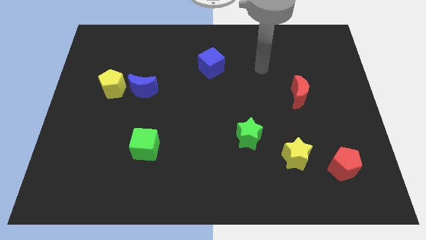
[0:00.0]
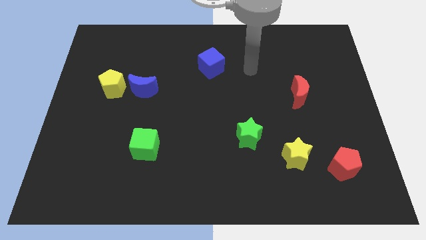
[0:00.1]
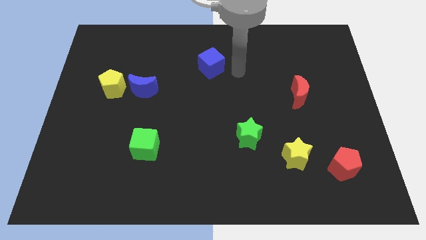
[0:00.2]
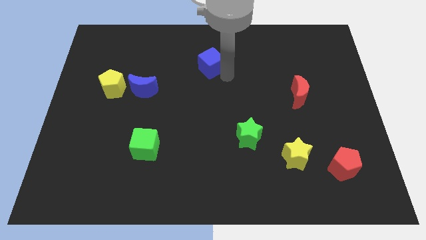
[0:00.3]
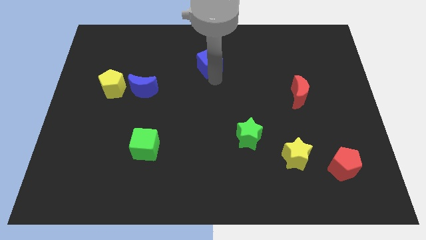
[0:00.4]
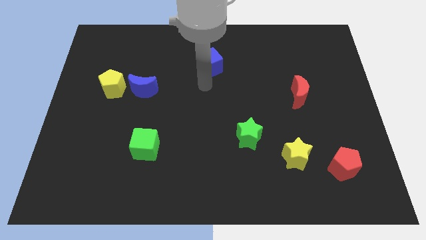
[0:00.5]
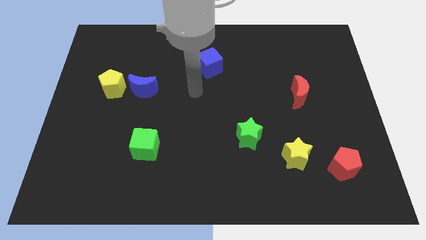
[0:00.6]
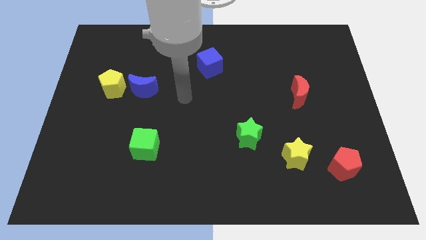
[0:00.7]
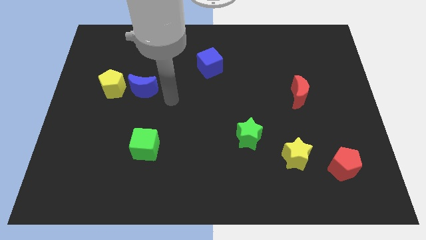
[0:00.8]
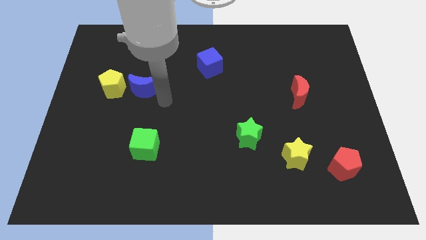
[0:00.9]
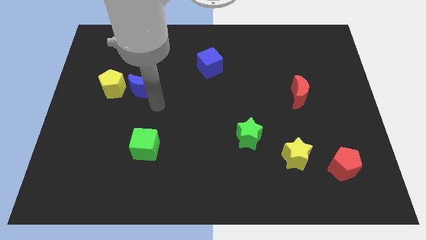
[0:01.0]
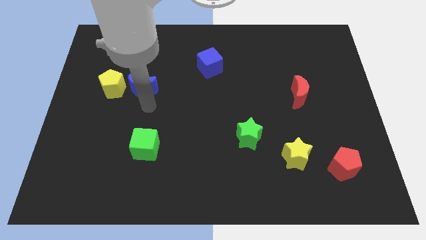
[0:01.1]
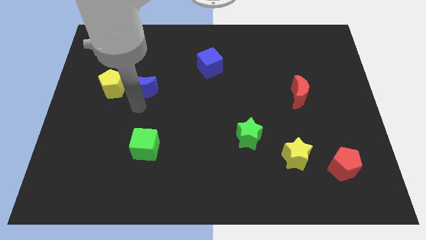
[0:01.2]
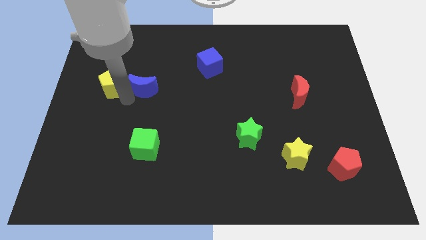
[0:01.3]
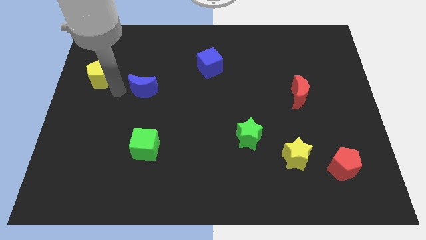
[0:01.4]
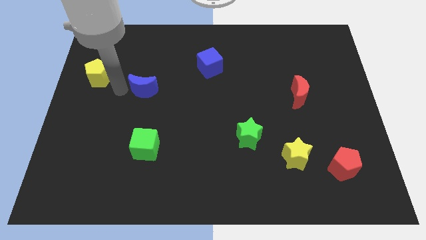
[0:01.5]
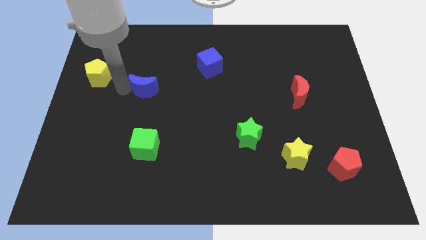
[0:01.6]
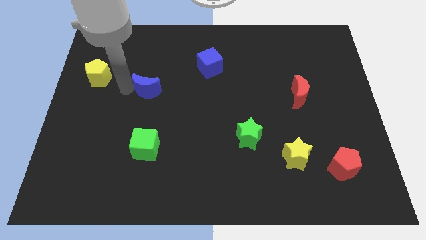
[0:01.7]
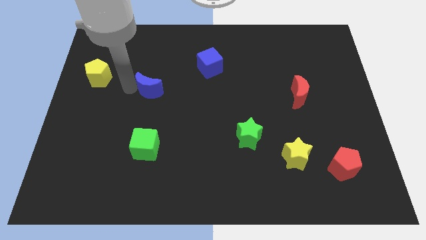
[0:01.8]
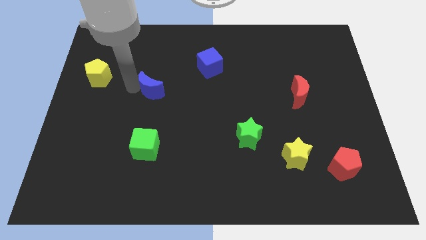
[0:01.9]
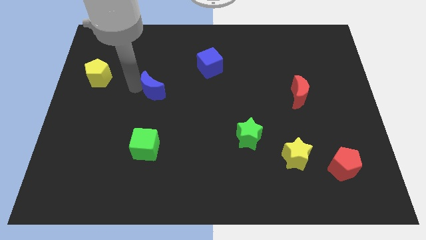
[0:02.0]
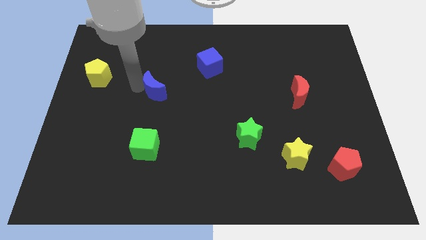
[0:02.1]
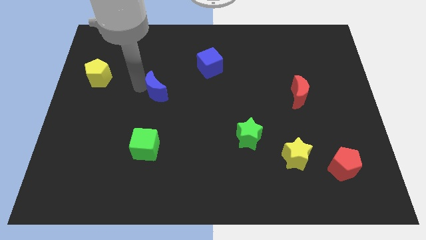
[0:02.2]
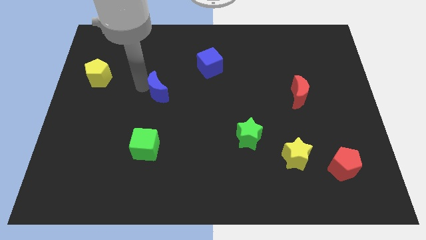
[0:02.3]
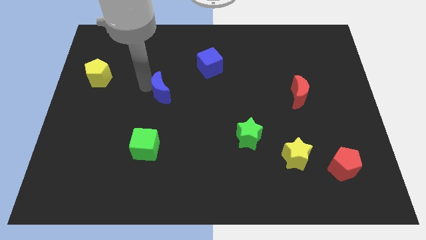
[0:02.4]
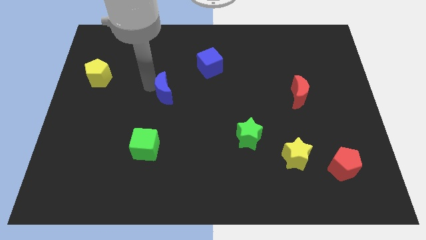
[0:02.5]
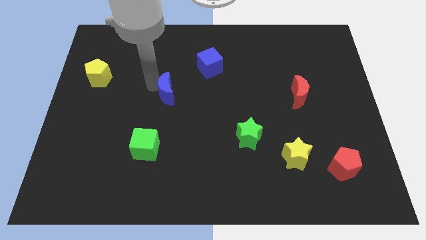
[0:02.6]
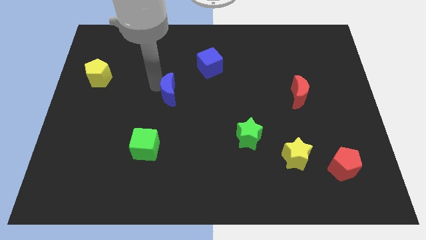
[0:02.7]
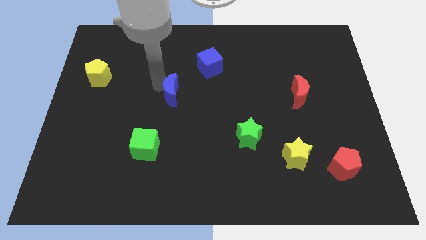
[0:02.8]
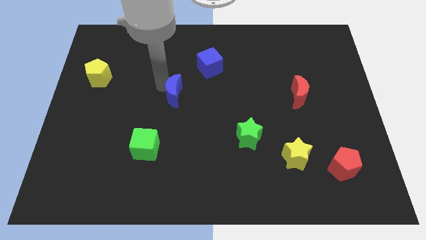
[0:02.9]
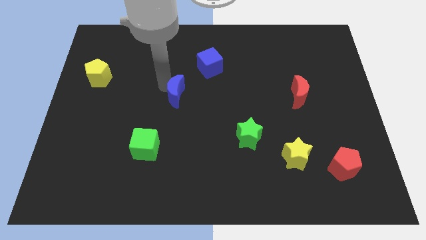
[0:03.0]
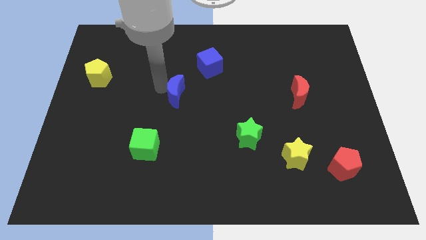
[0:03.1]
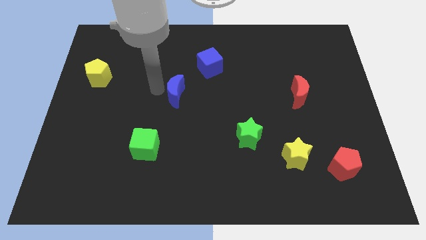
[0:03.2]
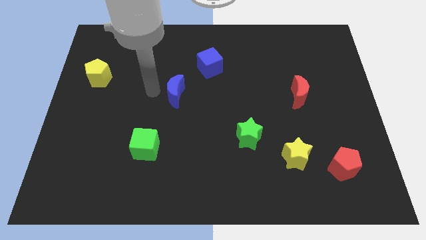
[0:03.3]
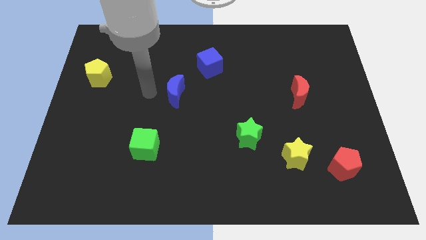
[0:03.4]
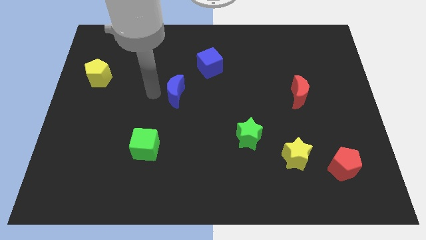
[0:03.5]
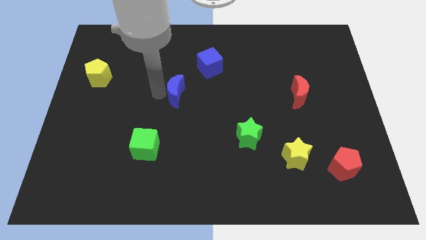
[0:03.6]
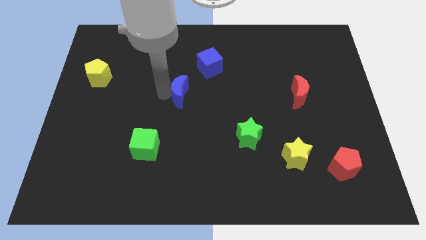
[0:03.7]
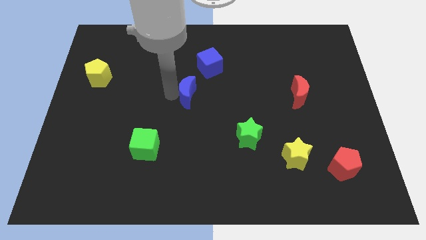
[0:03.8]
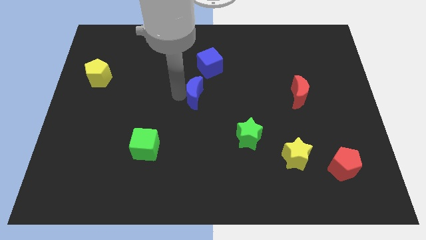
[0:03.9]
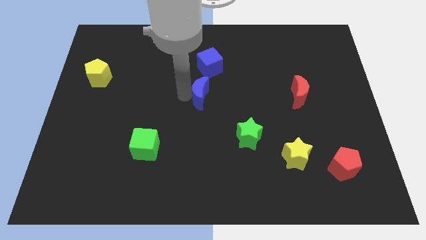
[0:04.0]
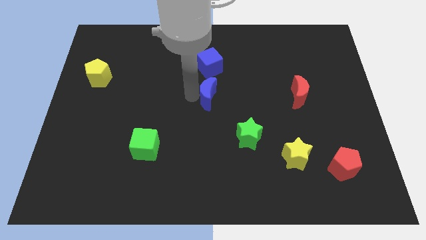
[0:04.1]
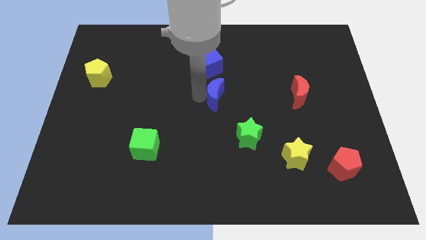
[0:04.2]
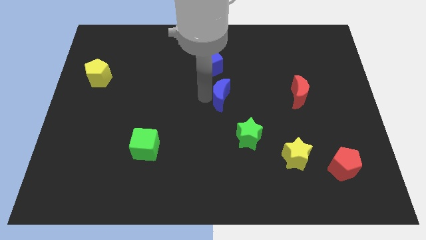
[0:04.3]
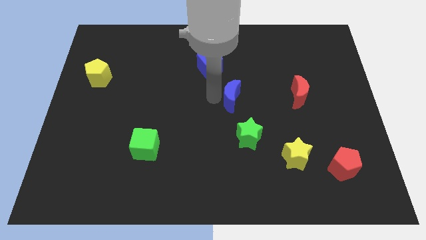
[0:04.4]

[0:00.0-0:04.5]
slide the blue moon right

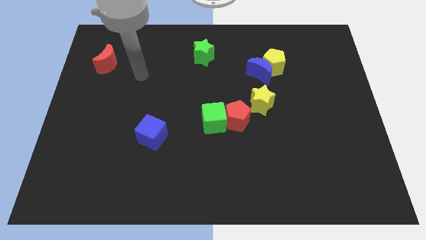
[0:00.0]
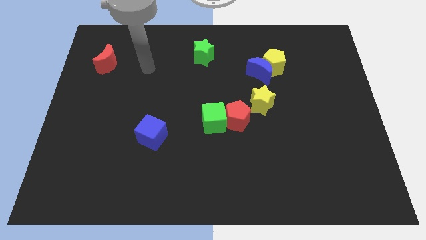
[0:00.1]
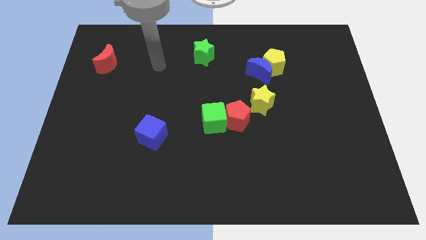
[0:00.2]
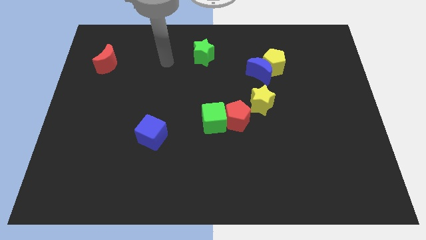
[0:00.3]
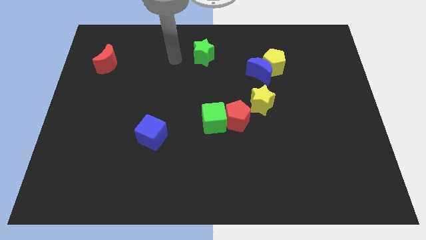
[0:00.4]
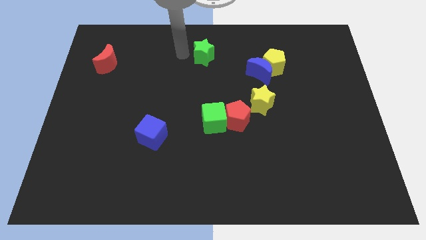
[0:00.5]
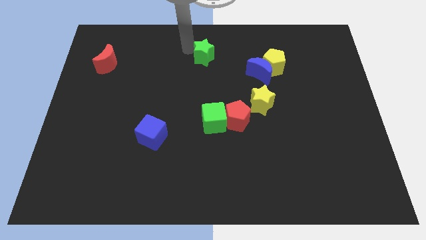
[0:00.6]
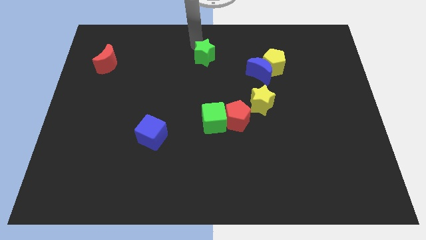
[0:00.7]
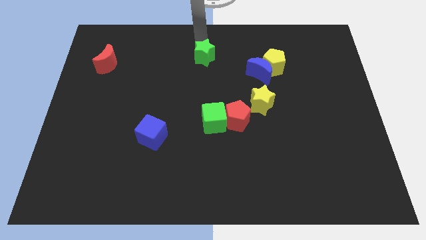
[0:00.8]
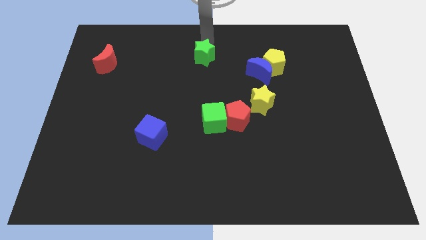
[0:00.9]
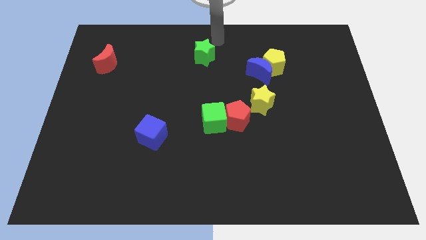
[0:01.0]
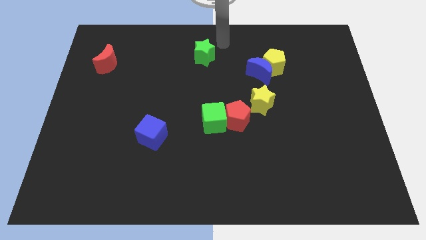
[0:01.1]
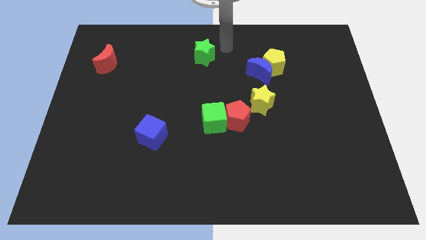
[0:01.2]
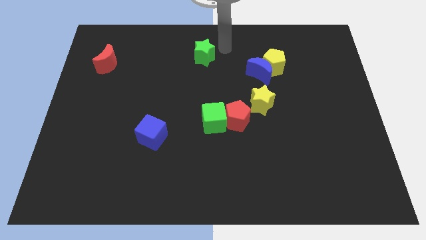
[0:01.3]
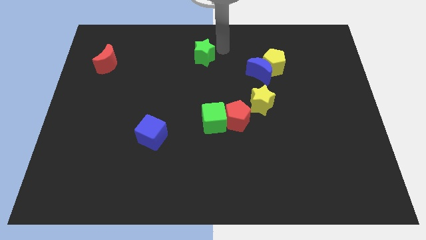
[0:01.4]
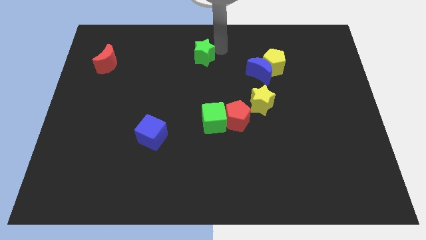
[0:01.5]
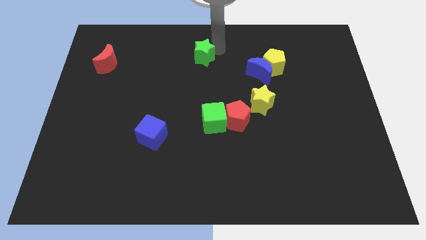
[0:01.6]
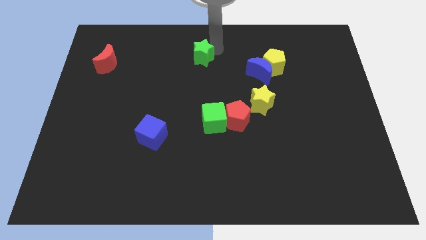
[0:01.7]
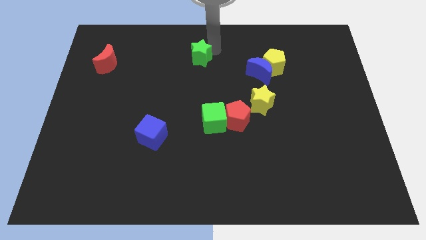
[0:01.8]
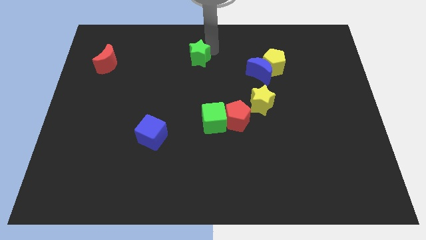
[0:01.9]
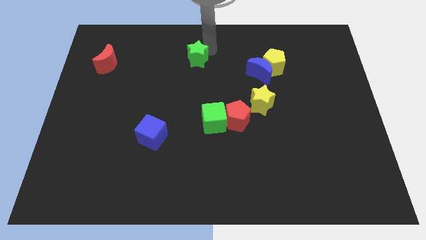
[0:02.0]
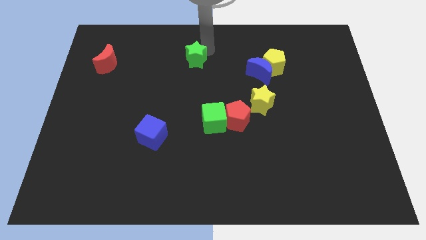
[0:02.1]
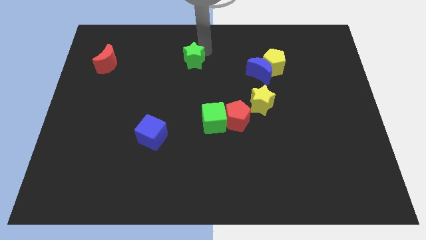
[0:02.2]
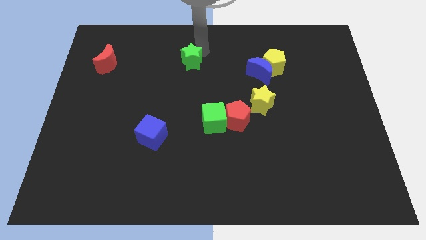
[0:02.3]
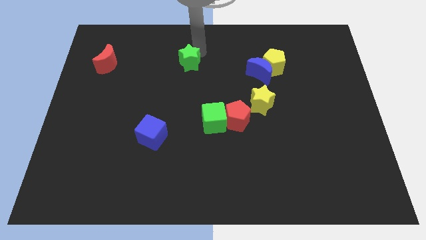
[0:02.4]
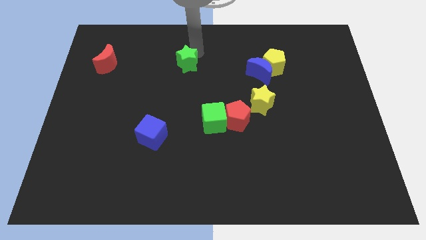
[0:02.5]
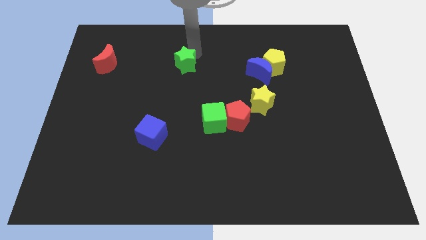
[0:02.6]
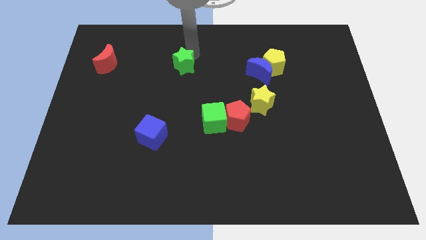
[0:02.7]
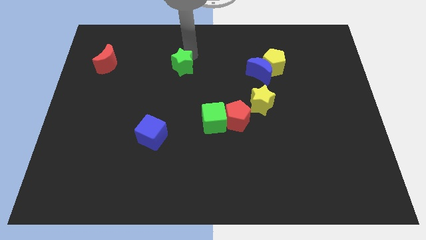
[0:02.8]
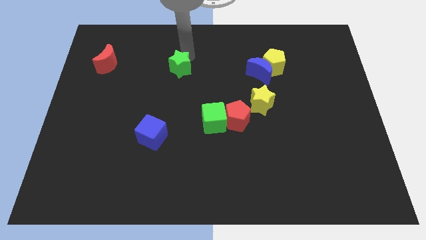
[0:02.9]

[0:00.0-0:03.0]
slightly move the green star downwards and left
